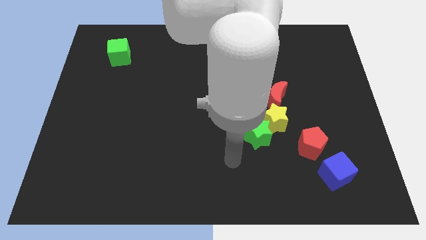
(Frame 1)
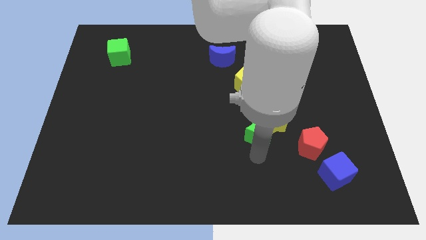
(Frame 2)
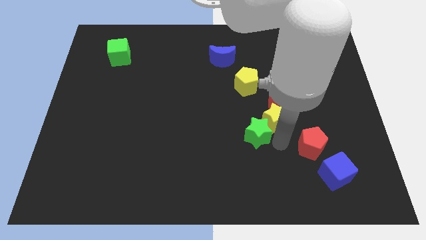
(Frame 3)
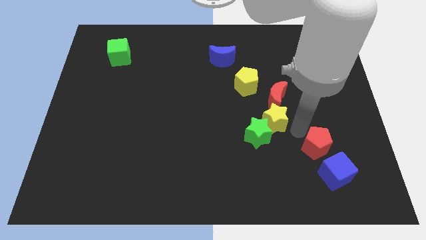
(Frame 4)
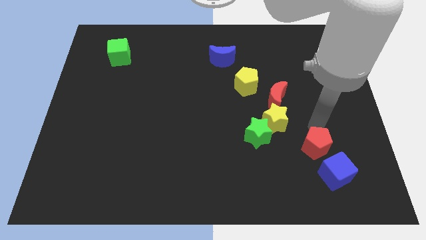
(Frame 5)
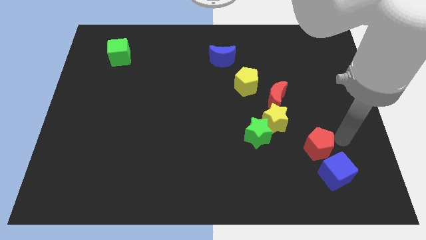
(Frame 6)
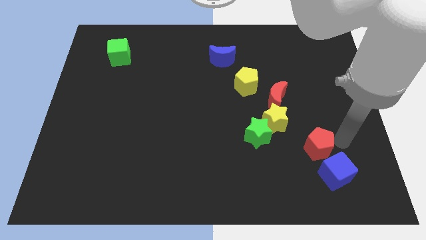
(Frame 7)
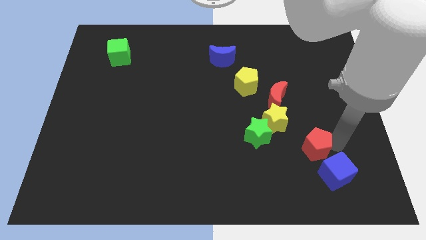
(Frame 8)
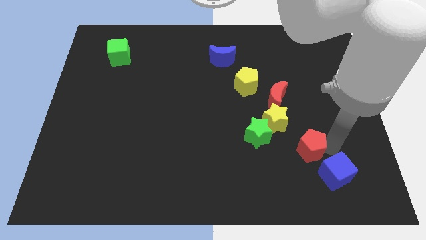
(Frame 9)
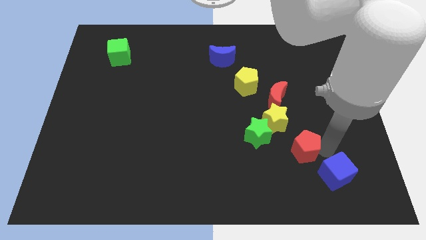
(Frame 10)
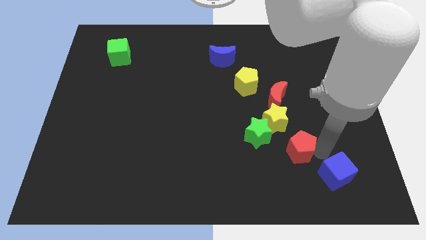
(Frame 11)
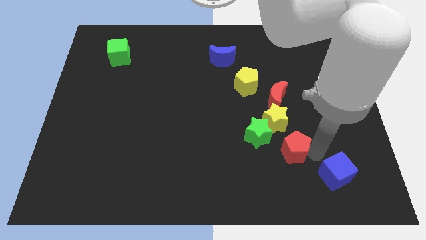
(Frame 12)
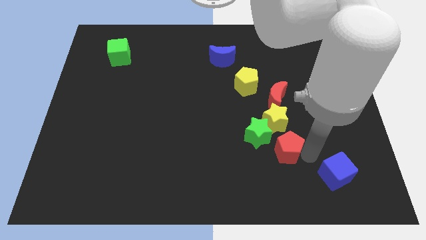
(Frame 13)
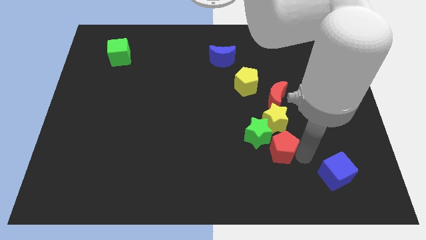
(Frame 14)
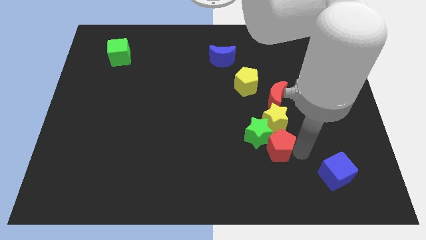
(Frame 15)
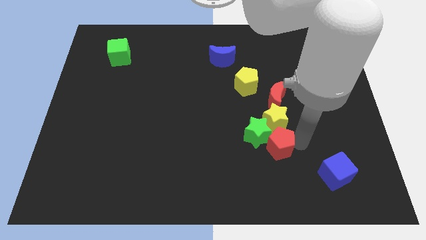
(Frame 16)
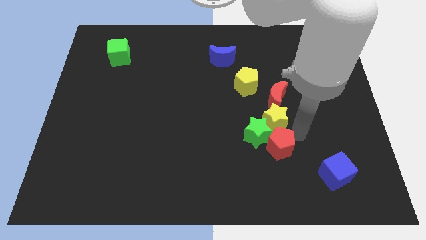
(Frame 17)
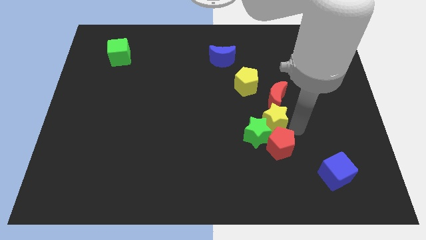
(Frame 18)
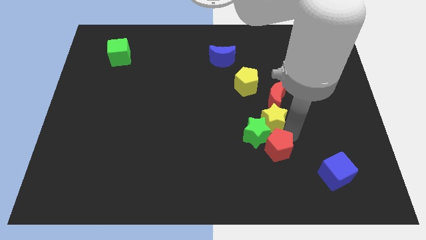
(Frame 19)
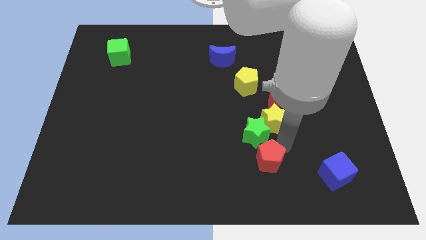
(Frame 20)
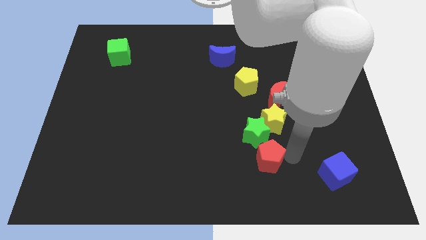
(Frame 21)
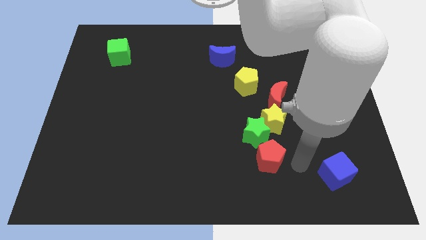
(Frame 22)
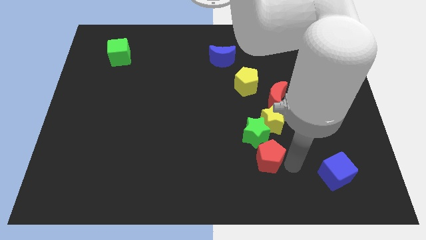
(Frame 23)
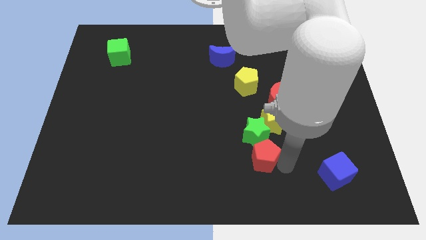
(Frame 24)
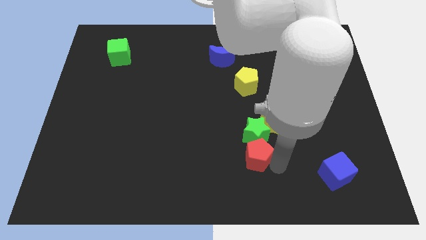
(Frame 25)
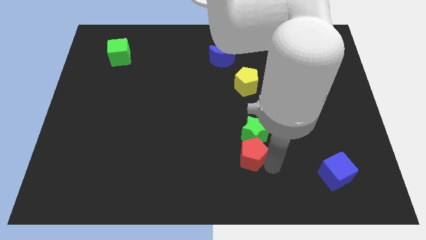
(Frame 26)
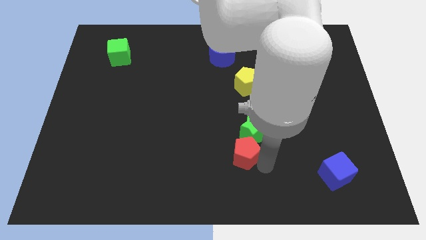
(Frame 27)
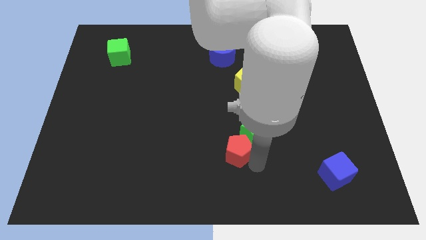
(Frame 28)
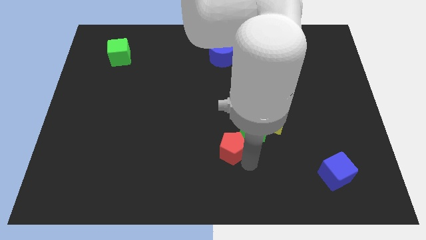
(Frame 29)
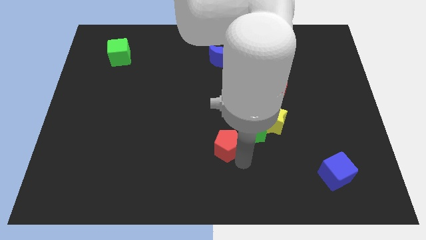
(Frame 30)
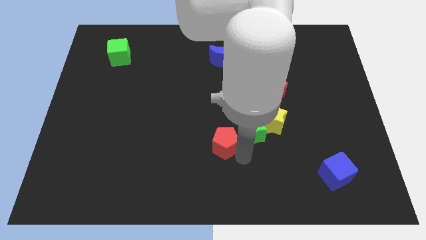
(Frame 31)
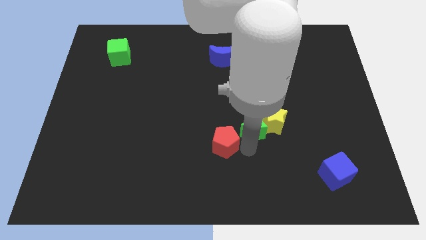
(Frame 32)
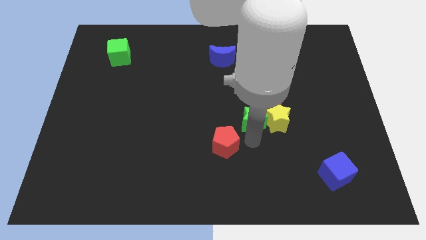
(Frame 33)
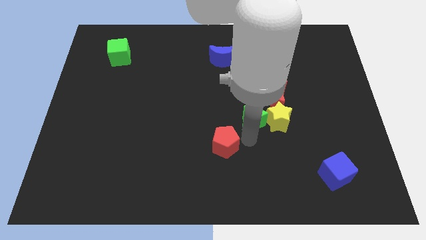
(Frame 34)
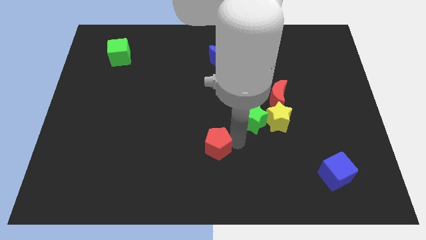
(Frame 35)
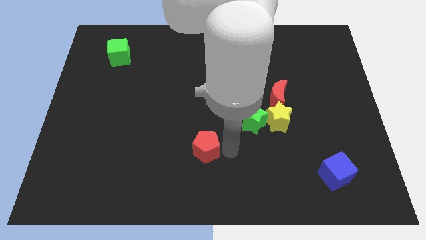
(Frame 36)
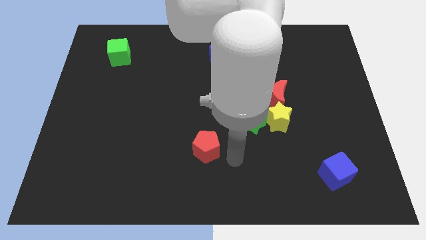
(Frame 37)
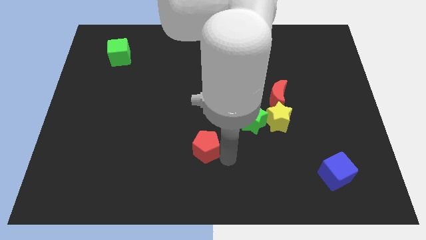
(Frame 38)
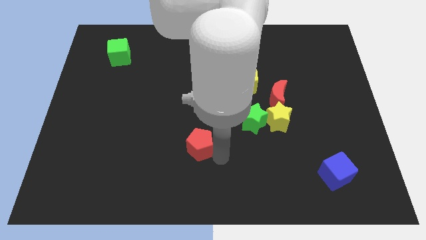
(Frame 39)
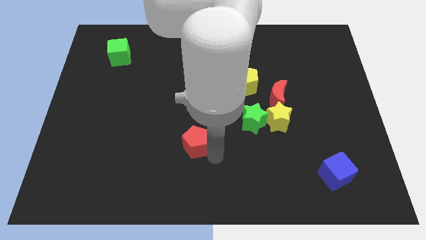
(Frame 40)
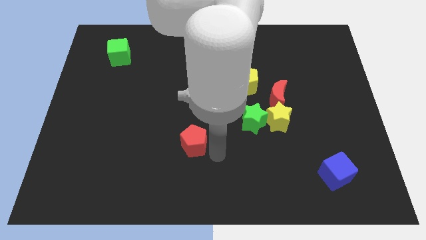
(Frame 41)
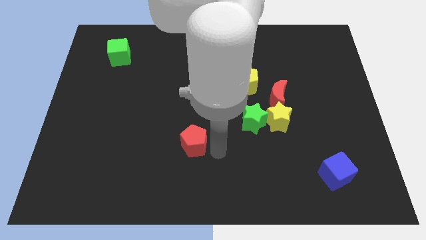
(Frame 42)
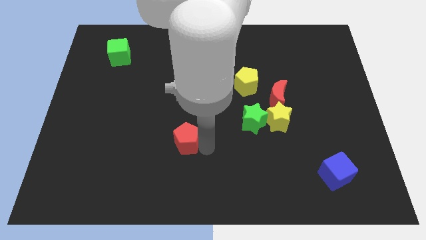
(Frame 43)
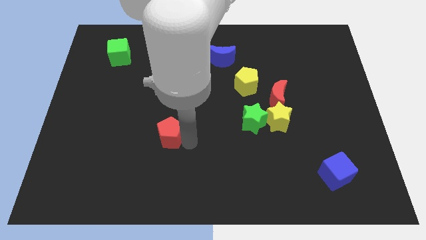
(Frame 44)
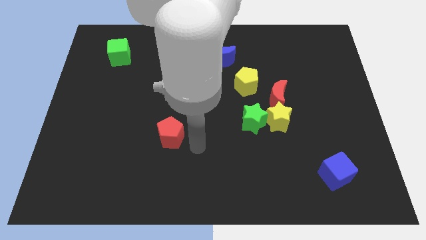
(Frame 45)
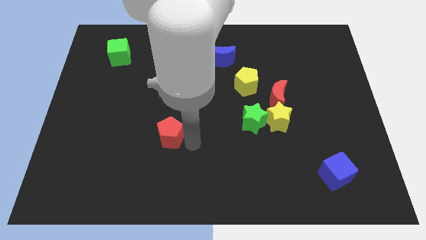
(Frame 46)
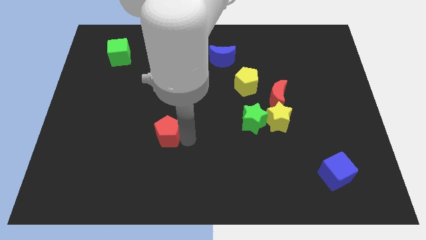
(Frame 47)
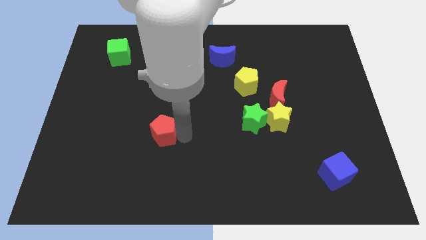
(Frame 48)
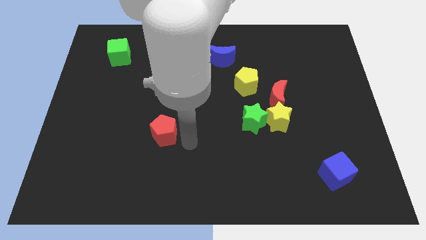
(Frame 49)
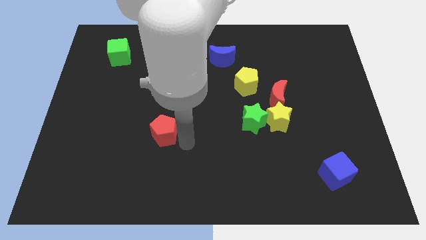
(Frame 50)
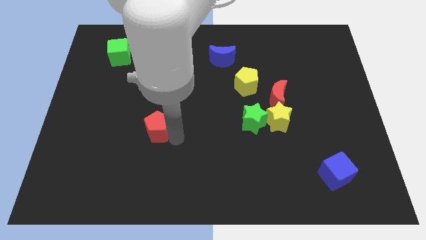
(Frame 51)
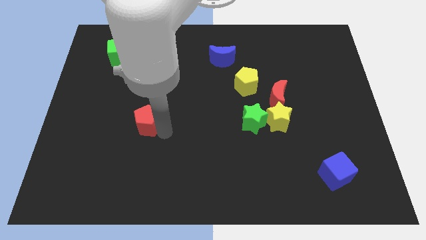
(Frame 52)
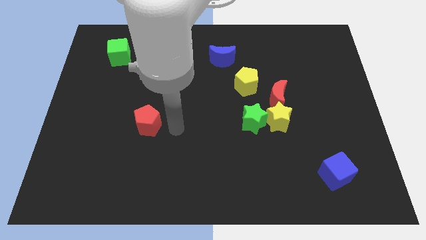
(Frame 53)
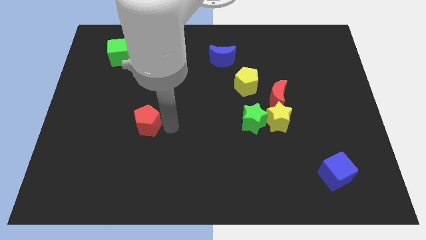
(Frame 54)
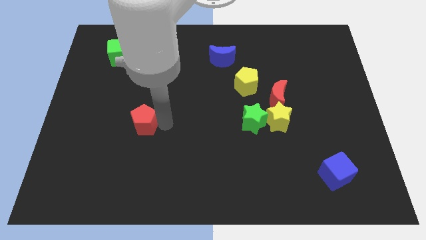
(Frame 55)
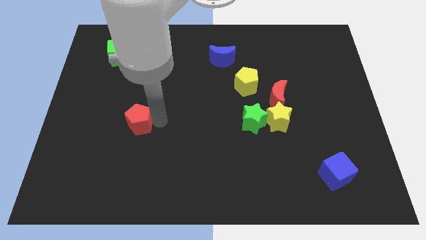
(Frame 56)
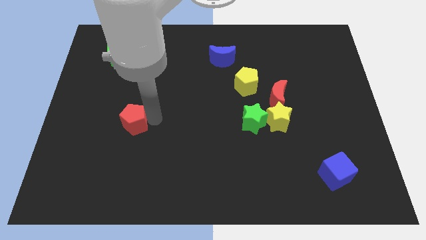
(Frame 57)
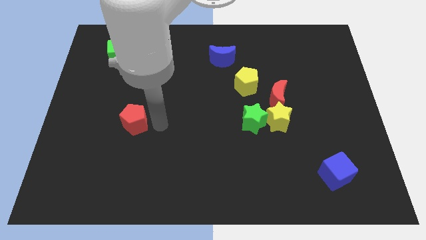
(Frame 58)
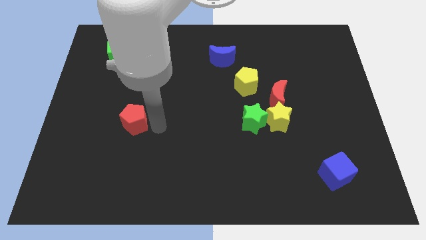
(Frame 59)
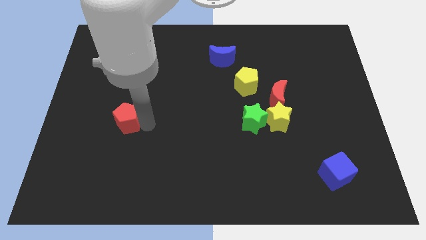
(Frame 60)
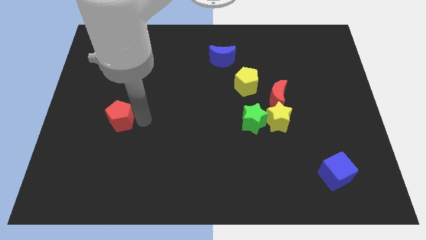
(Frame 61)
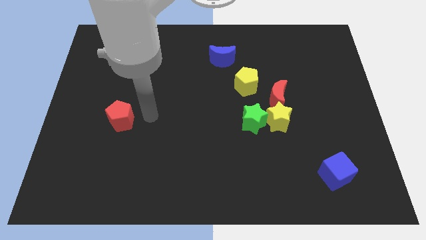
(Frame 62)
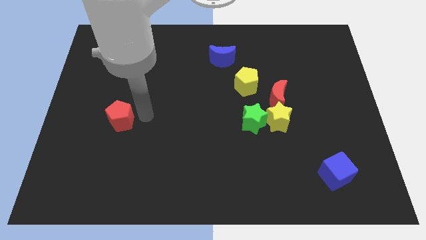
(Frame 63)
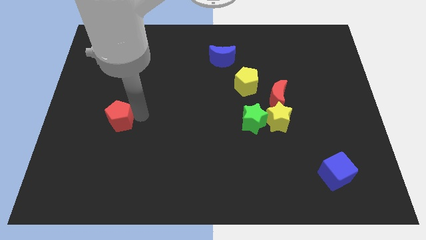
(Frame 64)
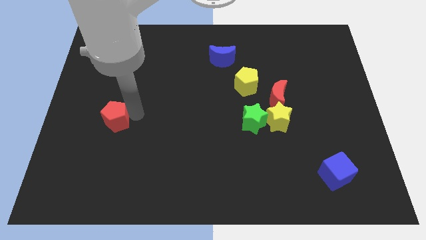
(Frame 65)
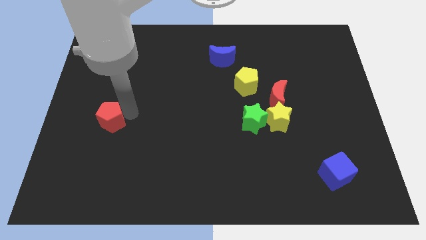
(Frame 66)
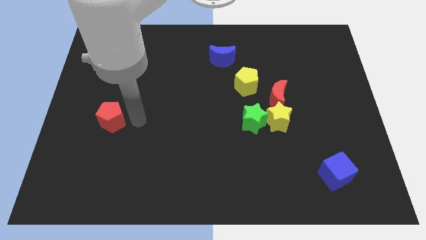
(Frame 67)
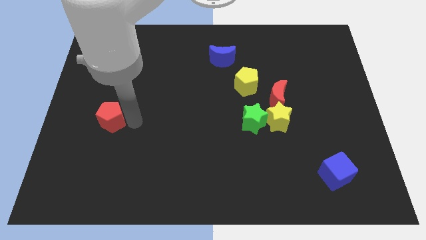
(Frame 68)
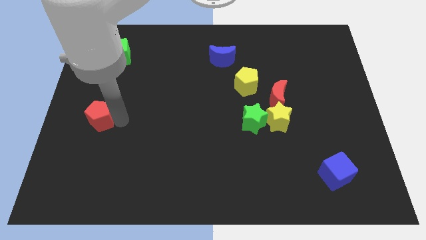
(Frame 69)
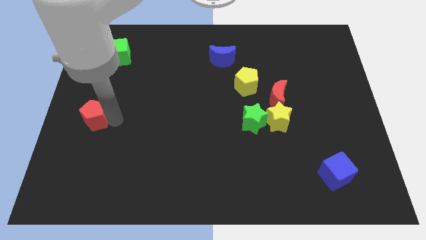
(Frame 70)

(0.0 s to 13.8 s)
put the red pentagon to the left side
